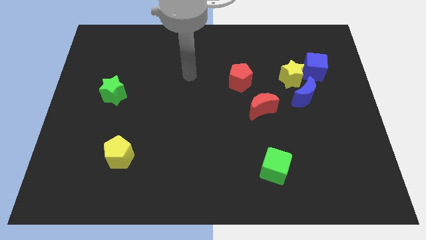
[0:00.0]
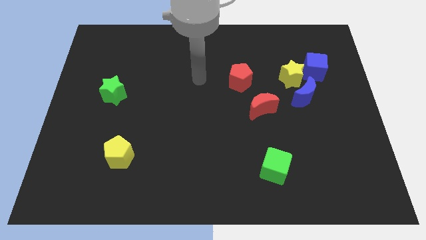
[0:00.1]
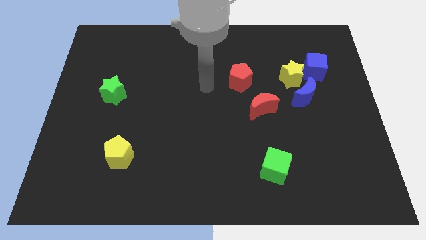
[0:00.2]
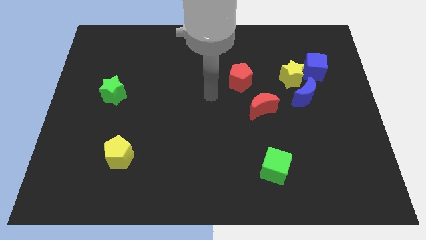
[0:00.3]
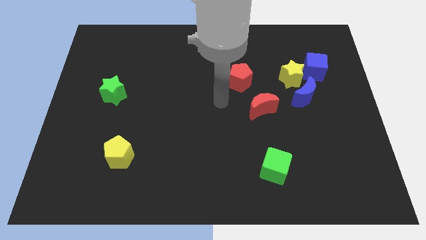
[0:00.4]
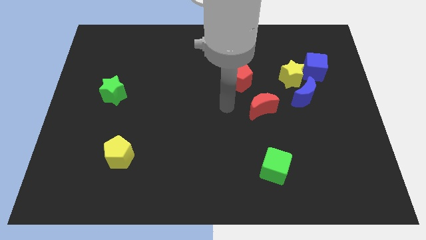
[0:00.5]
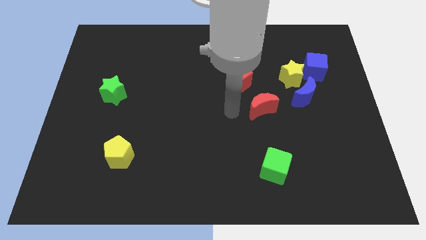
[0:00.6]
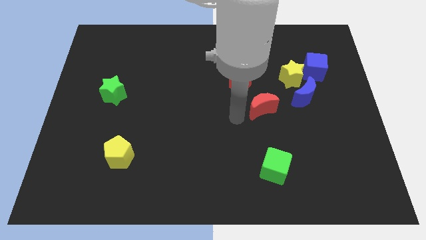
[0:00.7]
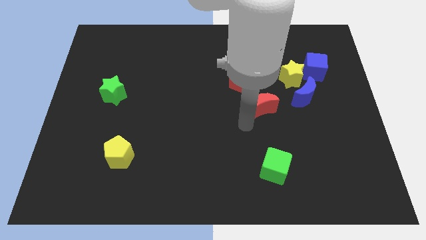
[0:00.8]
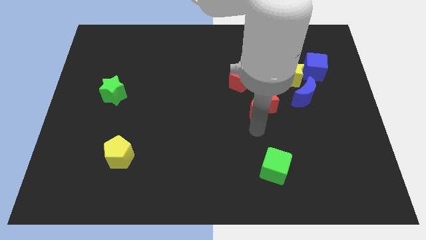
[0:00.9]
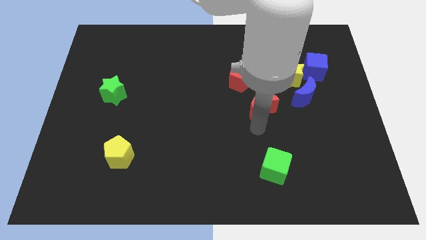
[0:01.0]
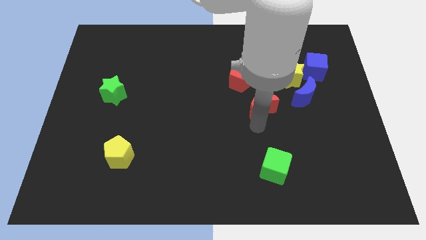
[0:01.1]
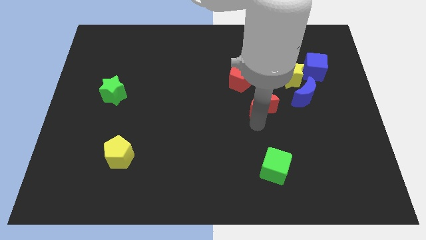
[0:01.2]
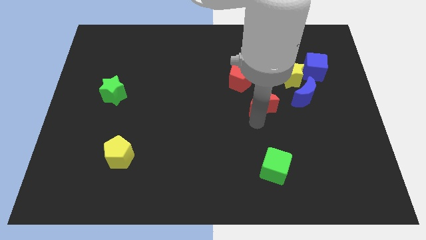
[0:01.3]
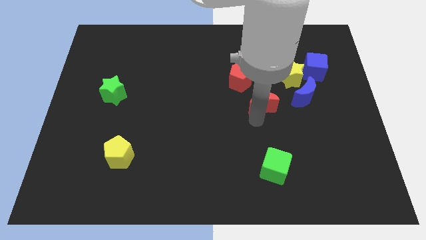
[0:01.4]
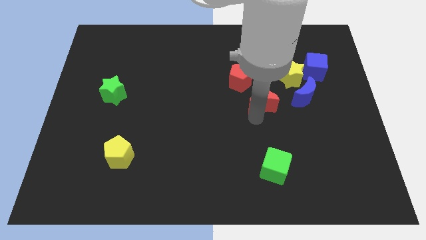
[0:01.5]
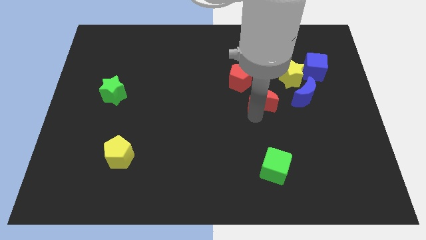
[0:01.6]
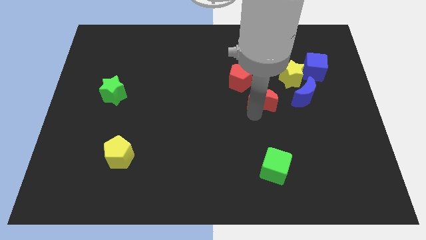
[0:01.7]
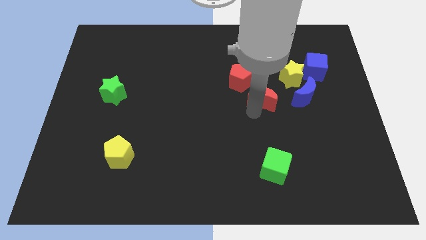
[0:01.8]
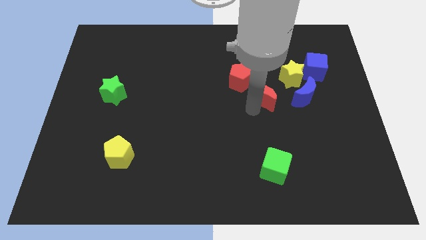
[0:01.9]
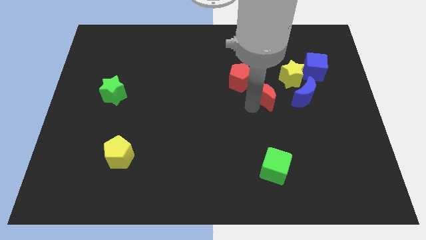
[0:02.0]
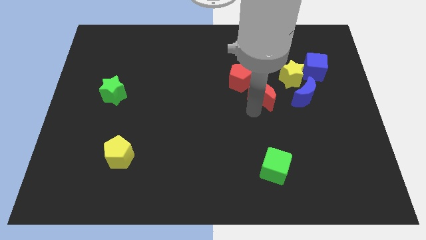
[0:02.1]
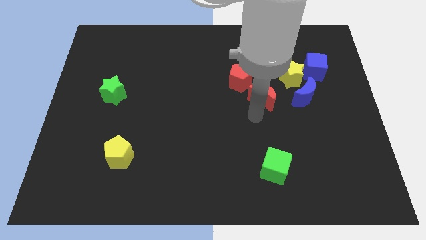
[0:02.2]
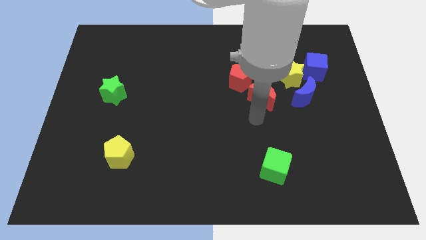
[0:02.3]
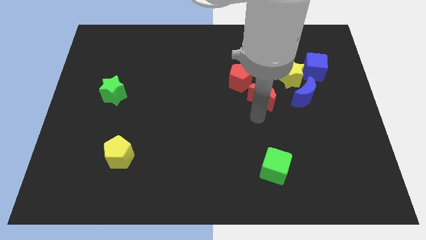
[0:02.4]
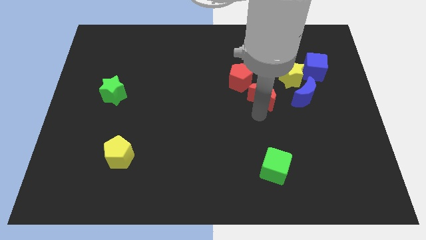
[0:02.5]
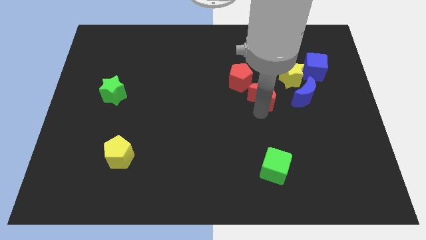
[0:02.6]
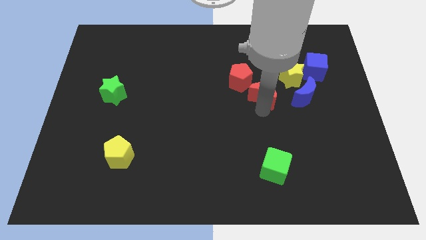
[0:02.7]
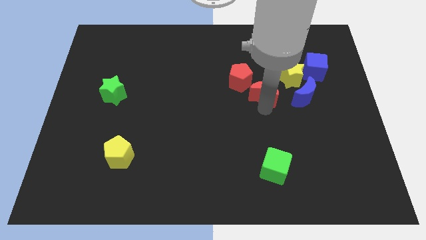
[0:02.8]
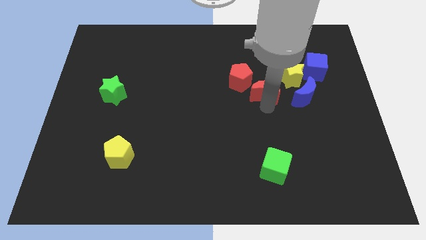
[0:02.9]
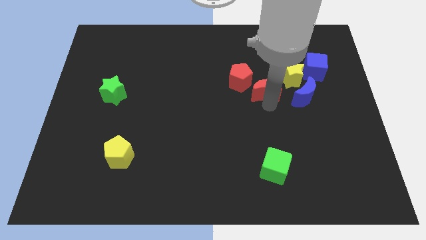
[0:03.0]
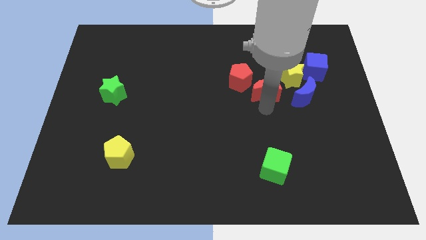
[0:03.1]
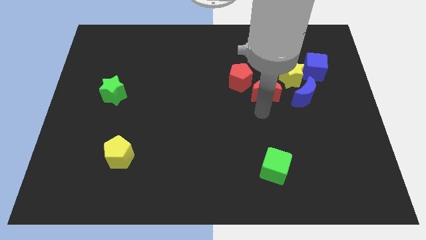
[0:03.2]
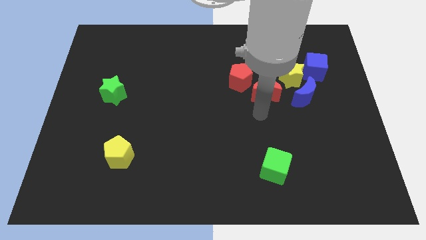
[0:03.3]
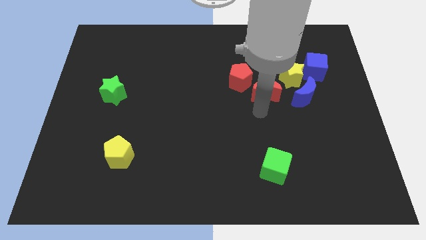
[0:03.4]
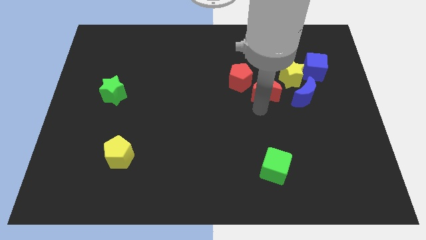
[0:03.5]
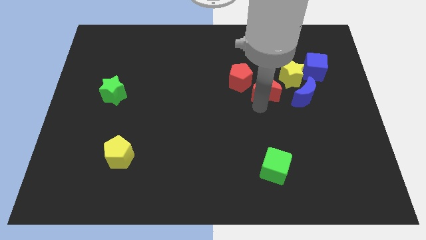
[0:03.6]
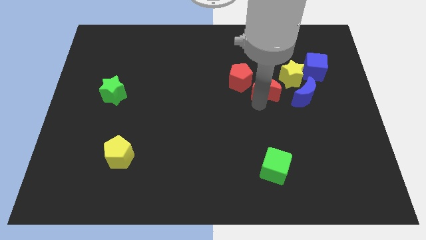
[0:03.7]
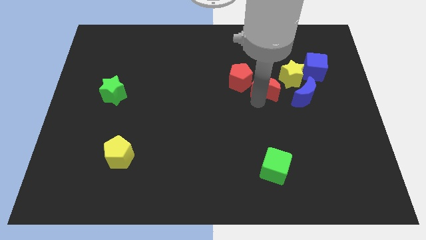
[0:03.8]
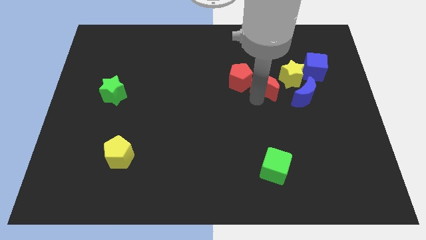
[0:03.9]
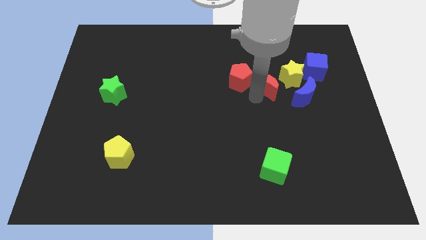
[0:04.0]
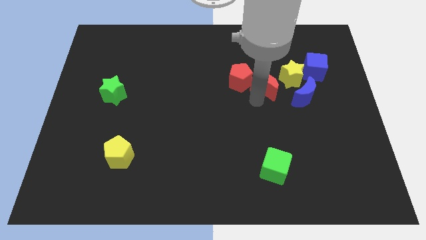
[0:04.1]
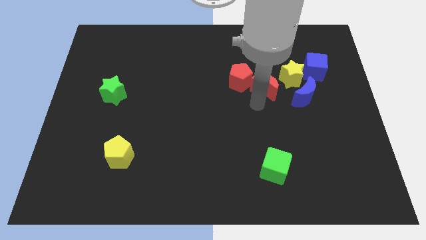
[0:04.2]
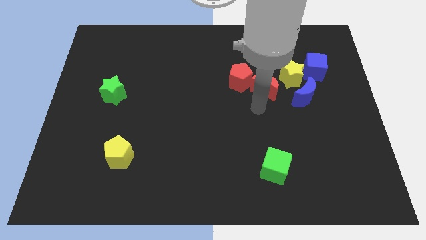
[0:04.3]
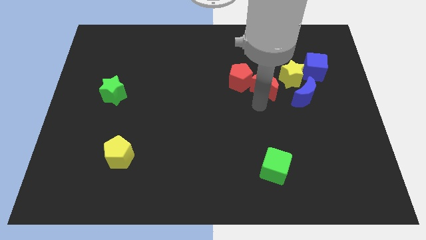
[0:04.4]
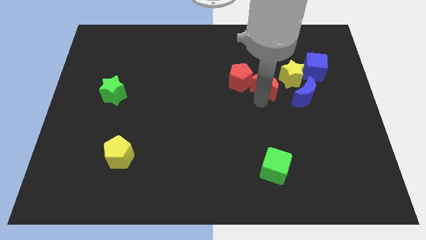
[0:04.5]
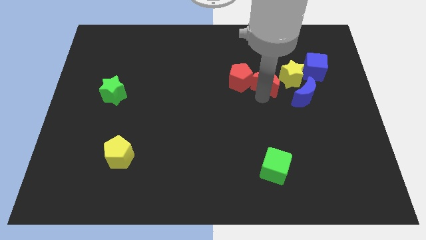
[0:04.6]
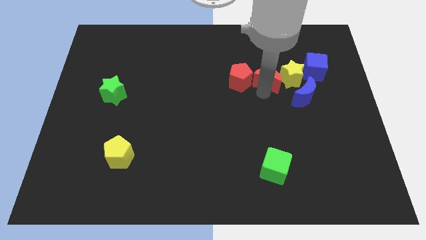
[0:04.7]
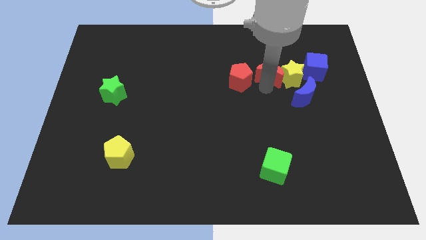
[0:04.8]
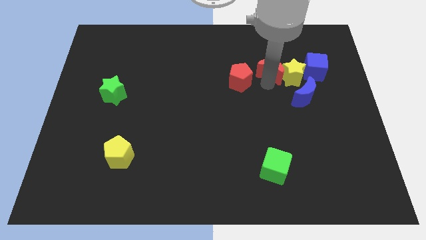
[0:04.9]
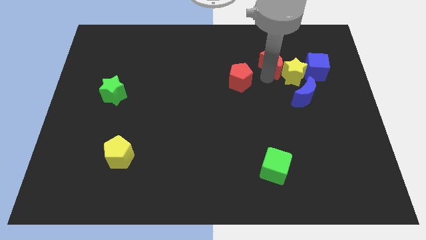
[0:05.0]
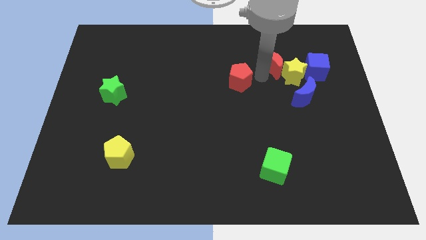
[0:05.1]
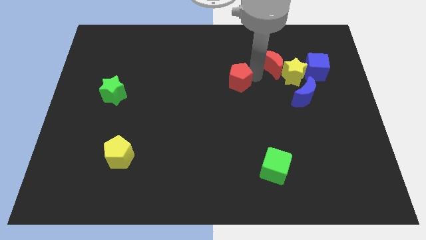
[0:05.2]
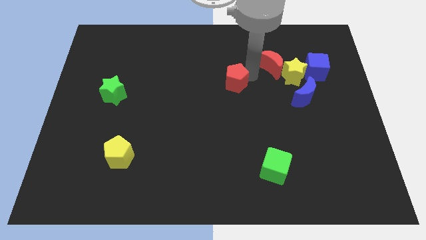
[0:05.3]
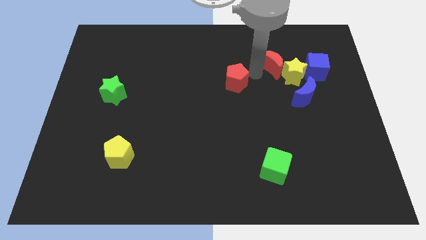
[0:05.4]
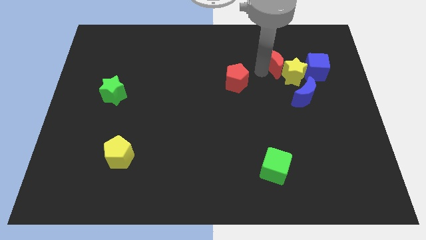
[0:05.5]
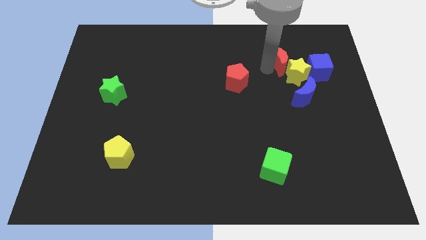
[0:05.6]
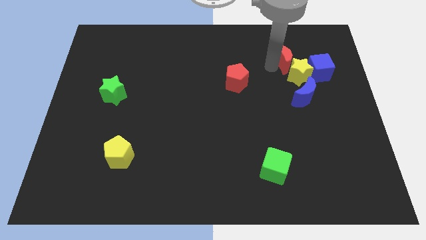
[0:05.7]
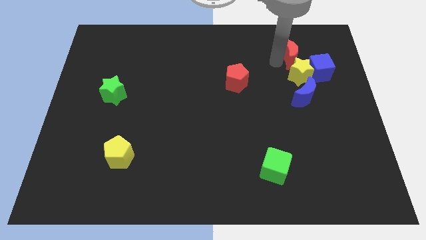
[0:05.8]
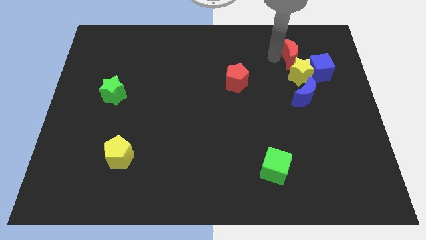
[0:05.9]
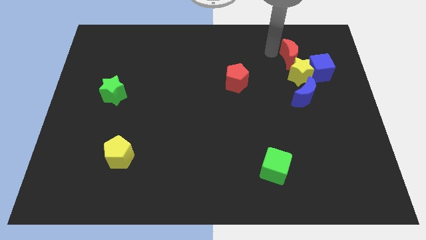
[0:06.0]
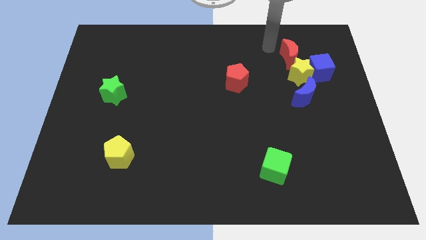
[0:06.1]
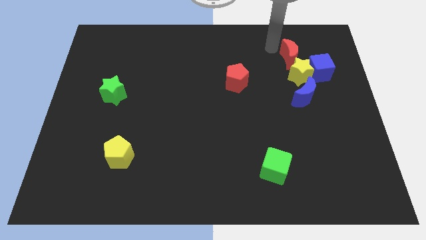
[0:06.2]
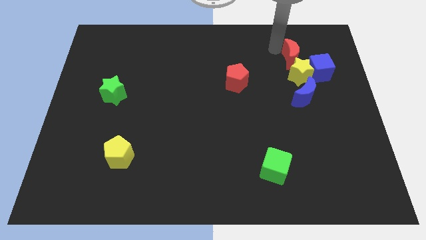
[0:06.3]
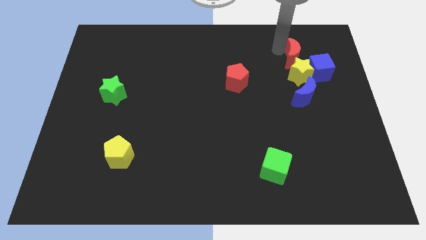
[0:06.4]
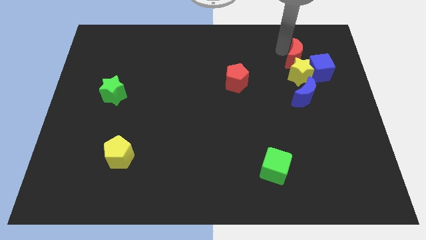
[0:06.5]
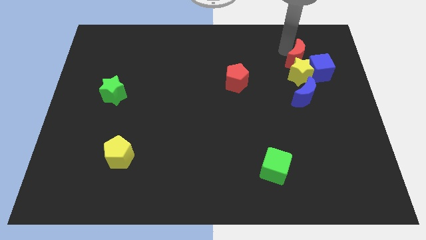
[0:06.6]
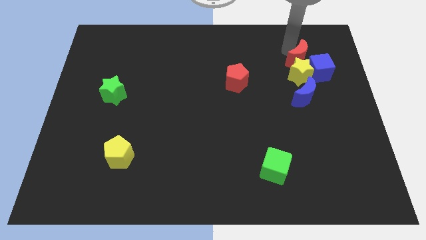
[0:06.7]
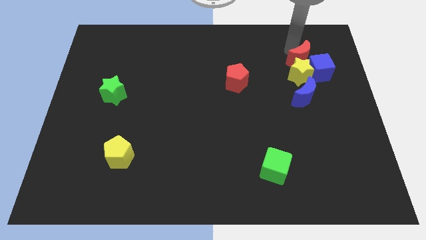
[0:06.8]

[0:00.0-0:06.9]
slide the red moon to the blue cube

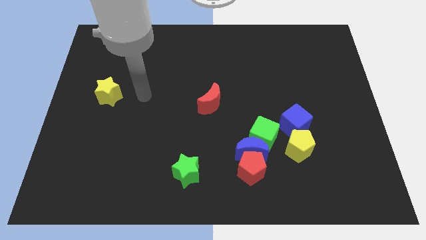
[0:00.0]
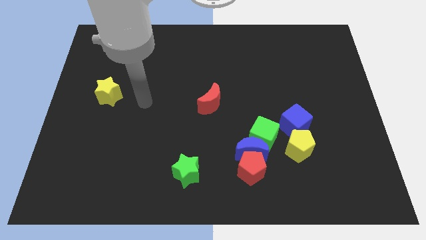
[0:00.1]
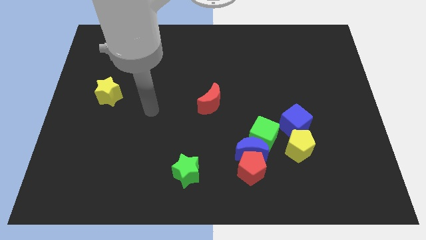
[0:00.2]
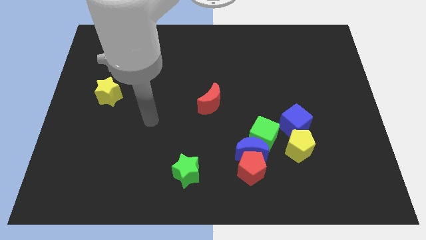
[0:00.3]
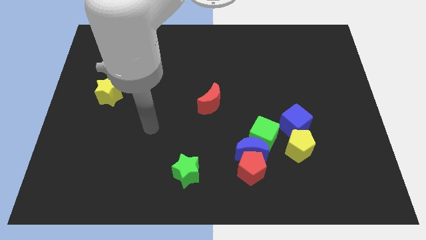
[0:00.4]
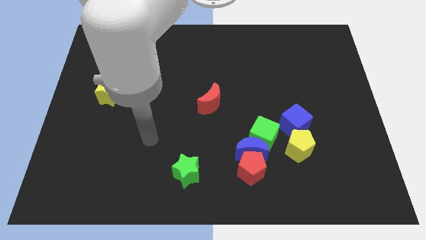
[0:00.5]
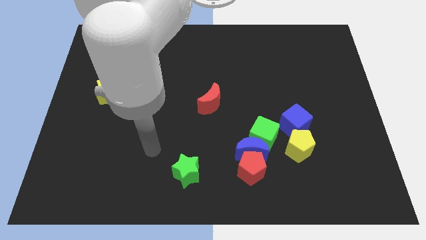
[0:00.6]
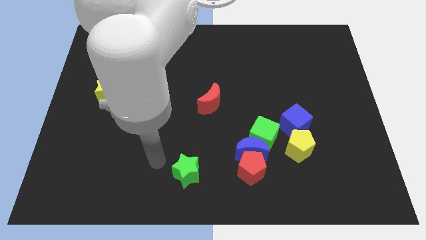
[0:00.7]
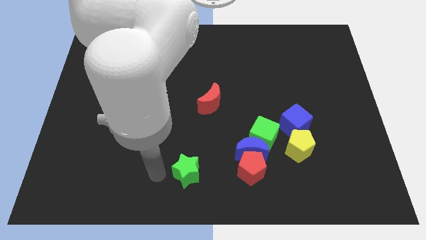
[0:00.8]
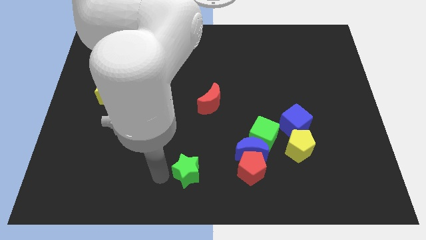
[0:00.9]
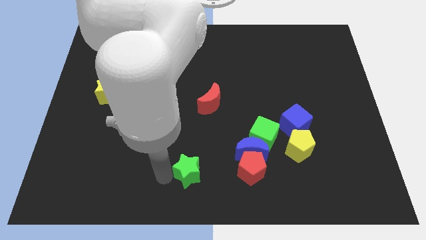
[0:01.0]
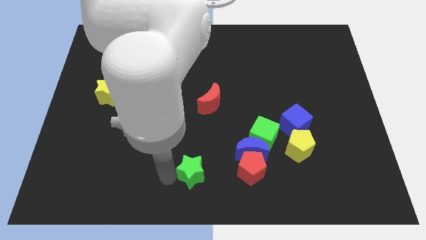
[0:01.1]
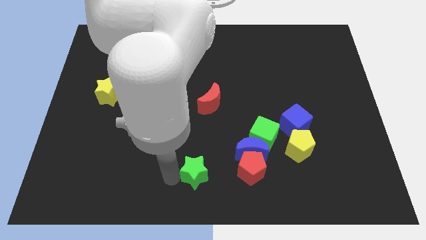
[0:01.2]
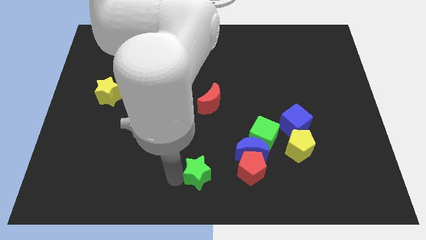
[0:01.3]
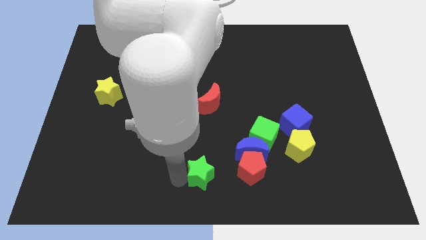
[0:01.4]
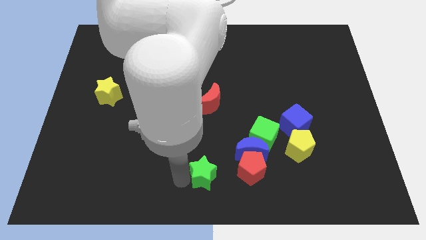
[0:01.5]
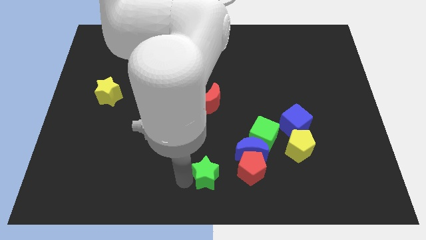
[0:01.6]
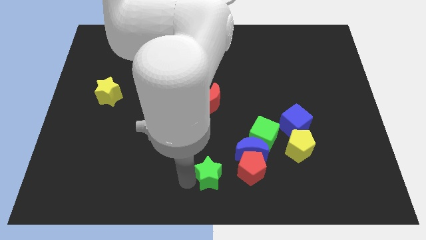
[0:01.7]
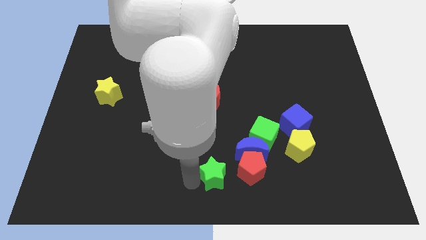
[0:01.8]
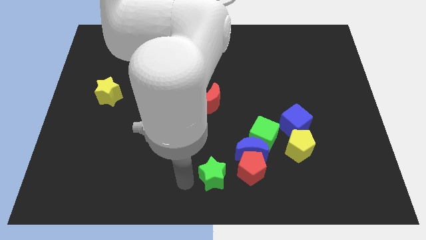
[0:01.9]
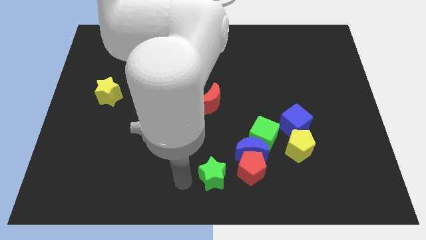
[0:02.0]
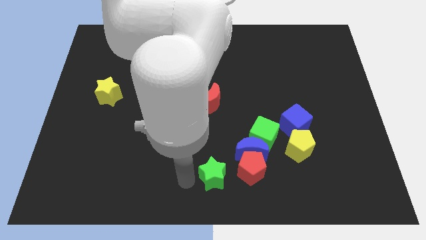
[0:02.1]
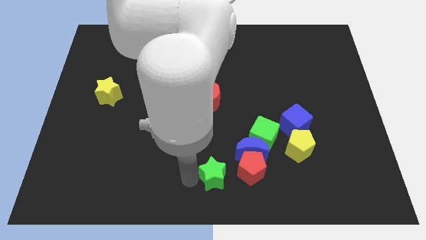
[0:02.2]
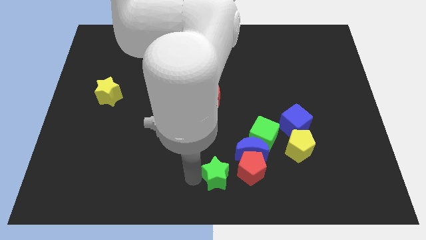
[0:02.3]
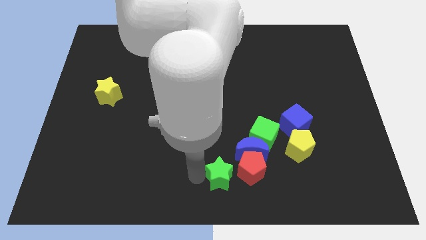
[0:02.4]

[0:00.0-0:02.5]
put the green star close to the red pentagon
